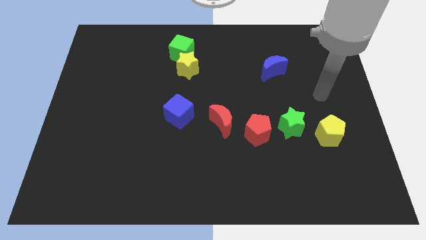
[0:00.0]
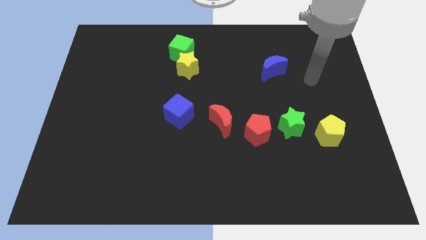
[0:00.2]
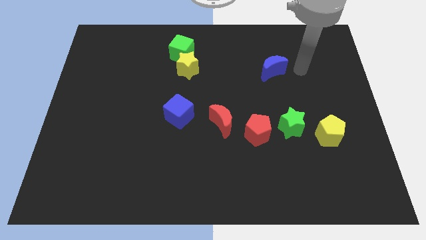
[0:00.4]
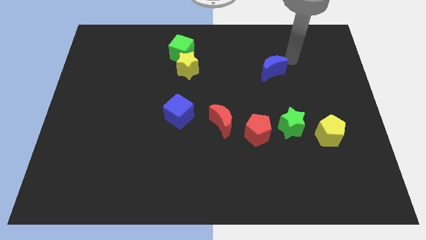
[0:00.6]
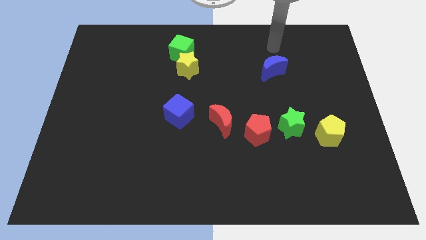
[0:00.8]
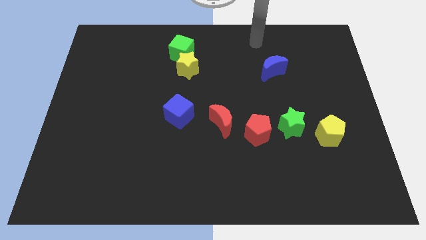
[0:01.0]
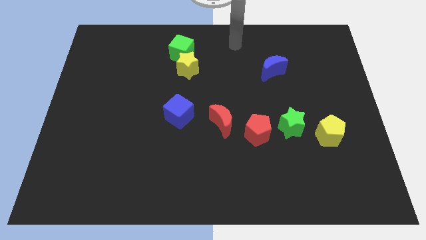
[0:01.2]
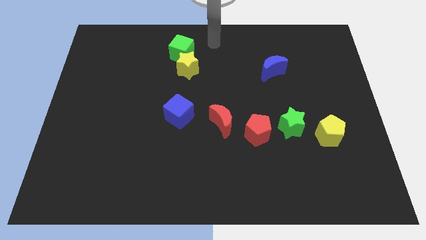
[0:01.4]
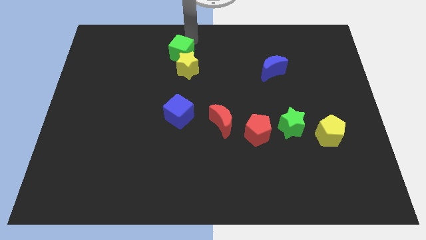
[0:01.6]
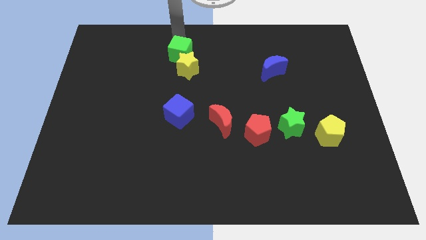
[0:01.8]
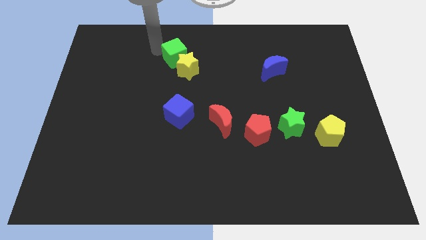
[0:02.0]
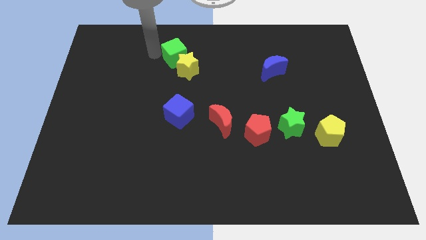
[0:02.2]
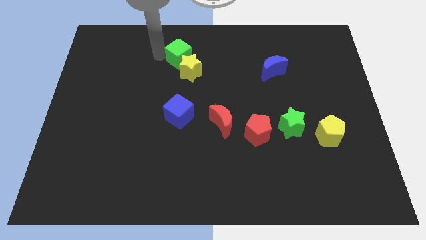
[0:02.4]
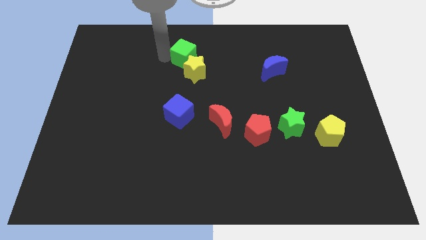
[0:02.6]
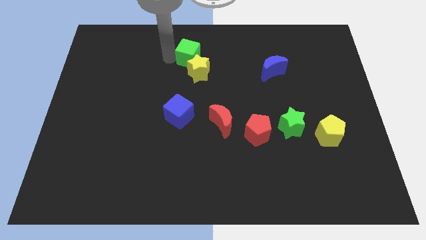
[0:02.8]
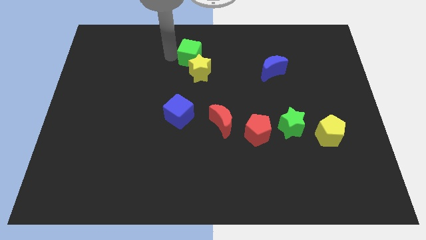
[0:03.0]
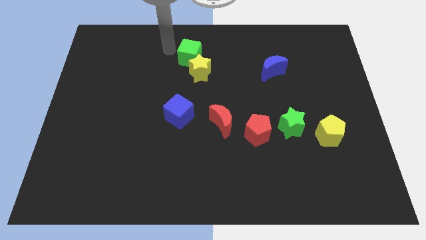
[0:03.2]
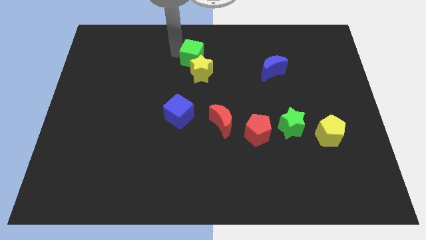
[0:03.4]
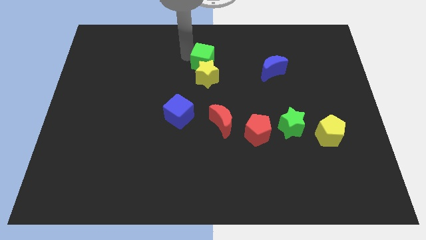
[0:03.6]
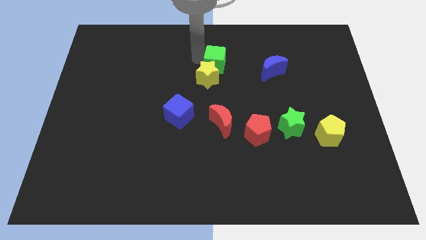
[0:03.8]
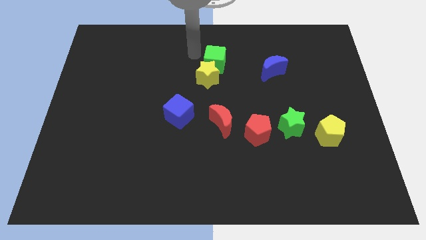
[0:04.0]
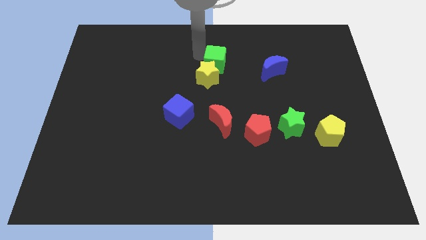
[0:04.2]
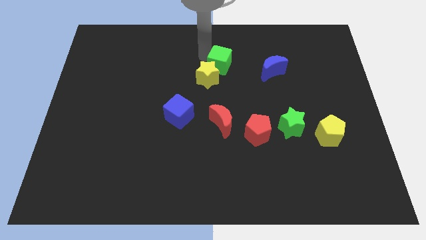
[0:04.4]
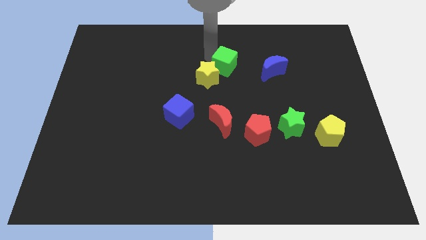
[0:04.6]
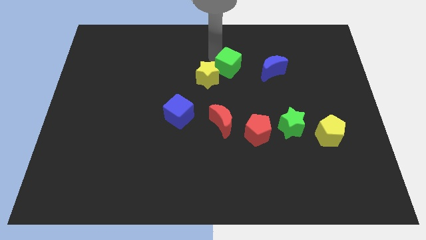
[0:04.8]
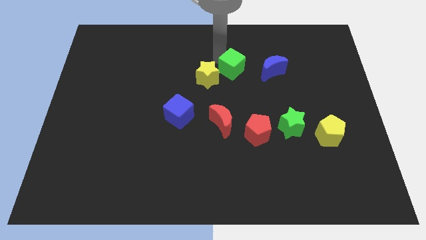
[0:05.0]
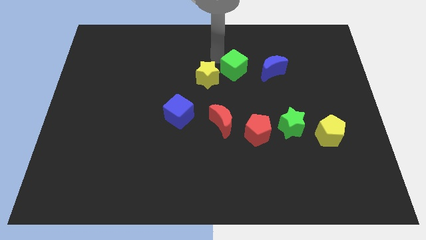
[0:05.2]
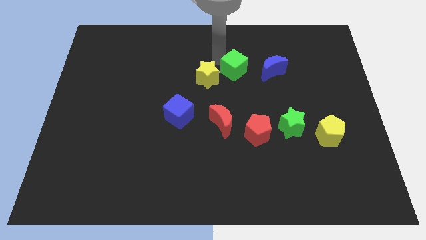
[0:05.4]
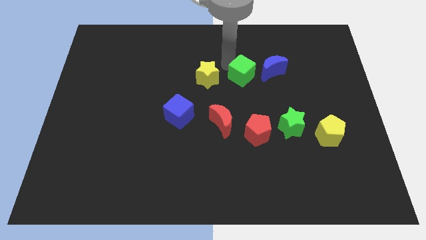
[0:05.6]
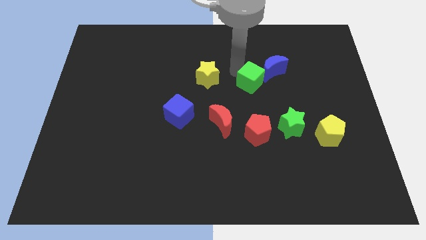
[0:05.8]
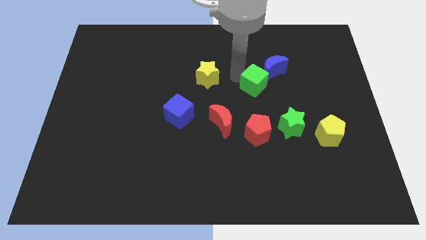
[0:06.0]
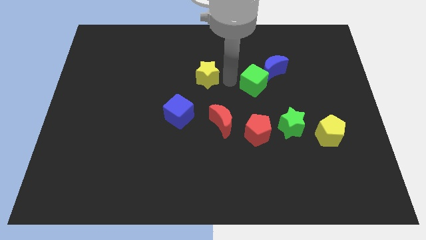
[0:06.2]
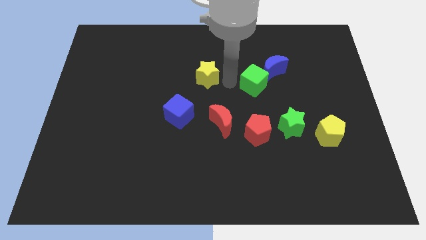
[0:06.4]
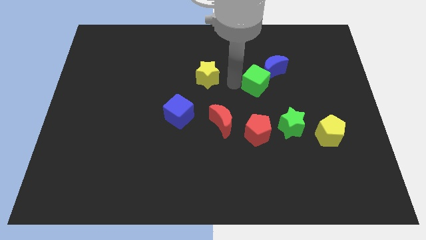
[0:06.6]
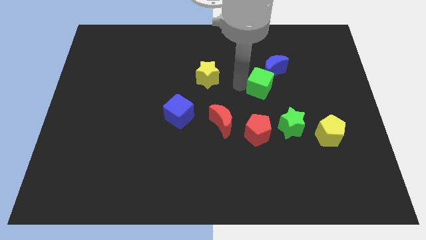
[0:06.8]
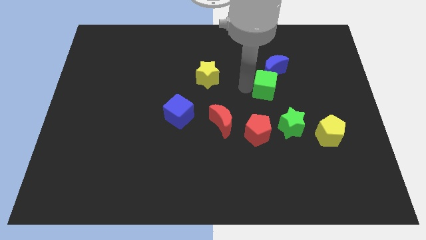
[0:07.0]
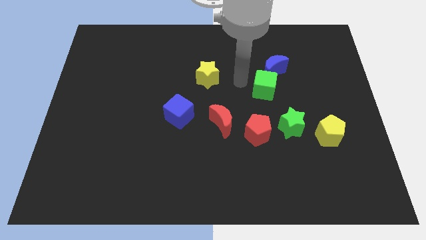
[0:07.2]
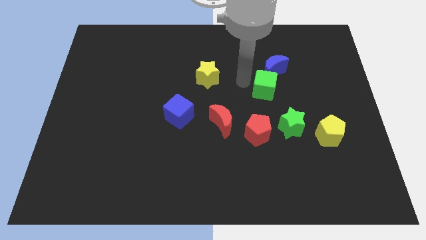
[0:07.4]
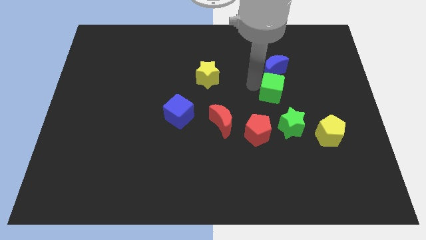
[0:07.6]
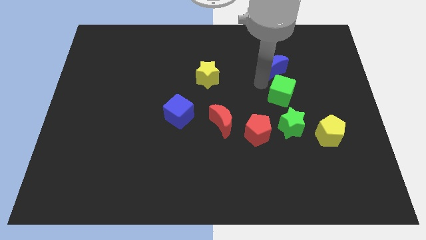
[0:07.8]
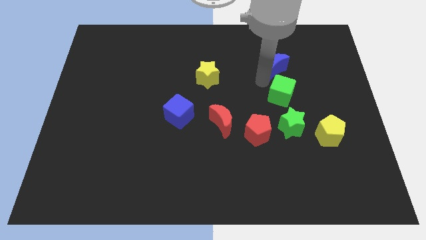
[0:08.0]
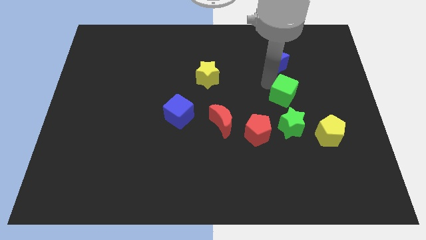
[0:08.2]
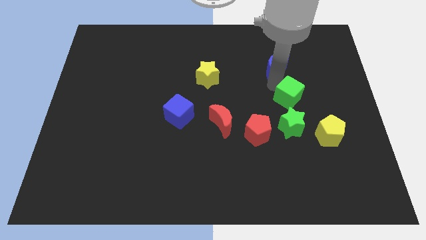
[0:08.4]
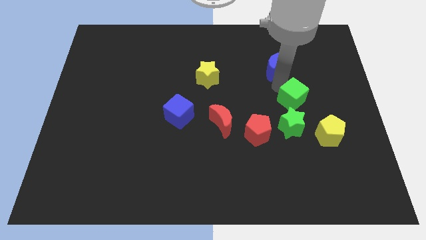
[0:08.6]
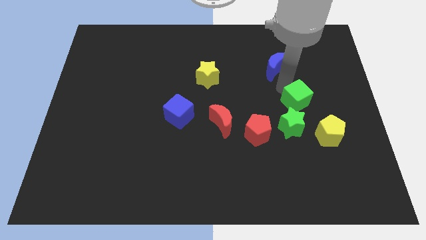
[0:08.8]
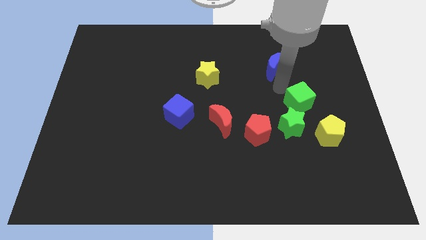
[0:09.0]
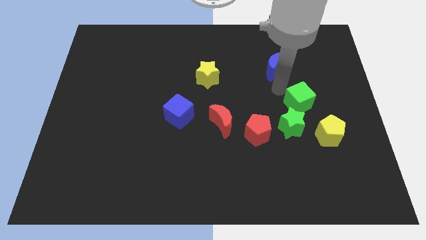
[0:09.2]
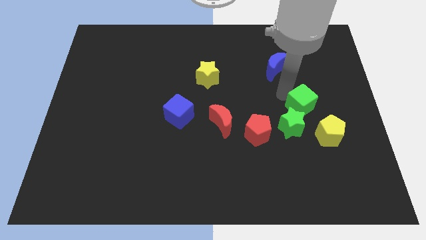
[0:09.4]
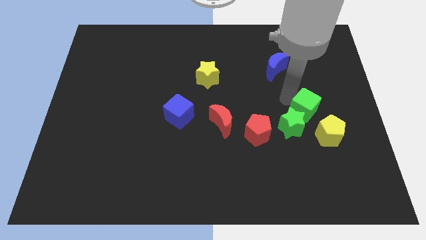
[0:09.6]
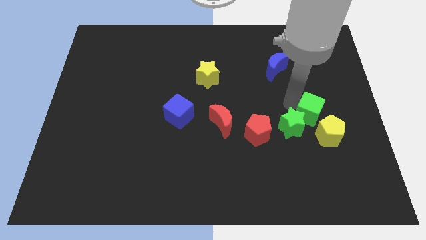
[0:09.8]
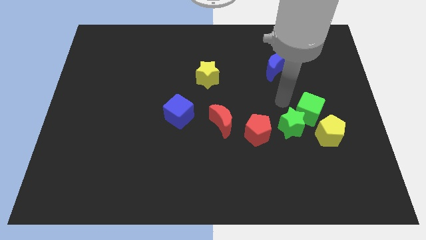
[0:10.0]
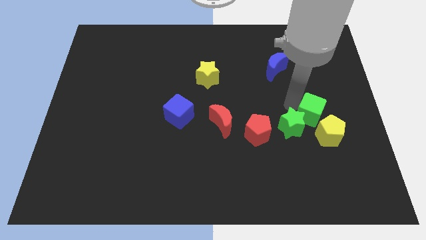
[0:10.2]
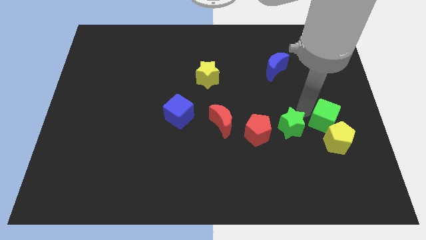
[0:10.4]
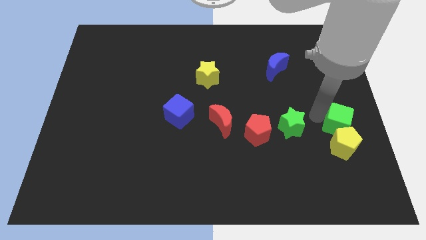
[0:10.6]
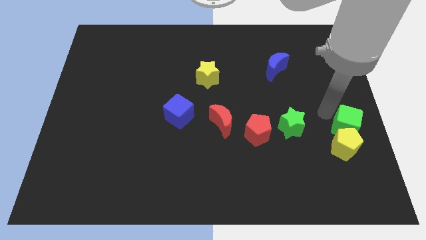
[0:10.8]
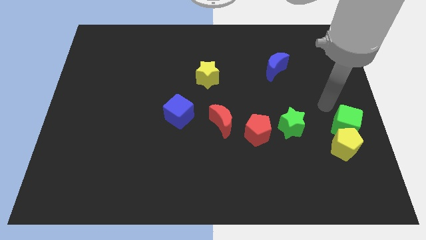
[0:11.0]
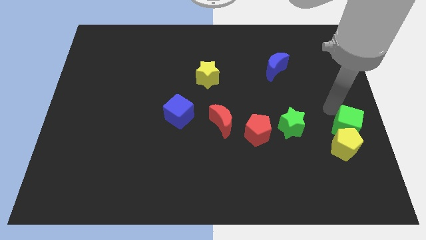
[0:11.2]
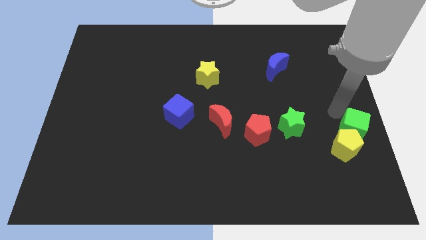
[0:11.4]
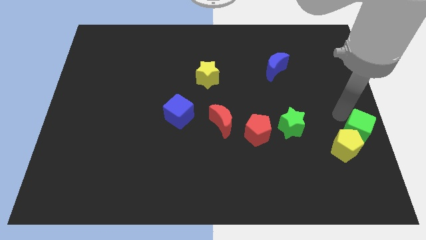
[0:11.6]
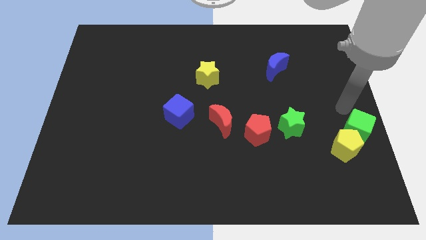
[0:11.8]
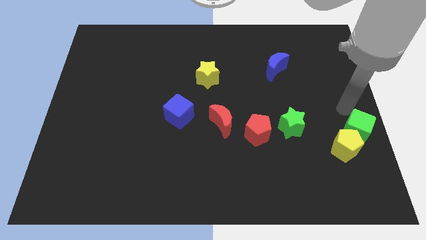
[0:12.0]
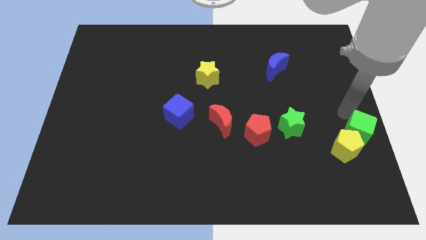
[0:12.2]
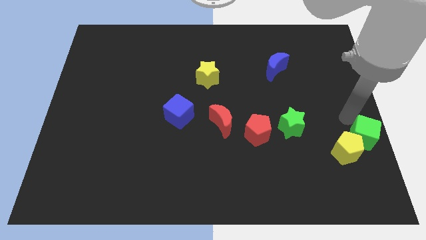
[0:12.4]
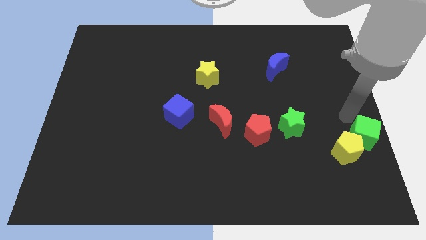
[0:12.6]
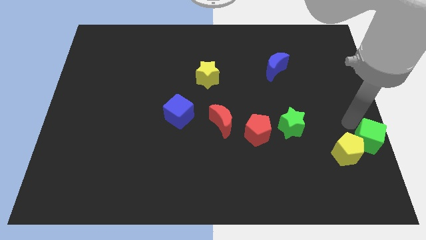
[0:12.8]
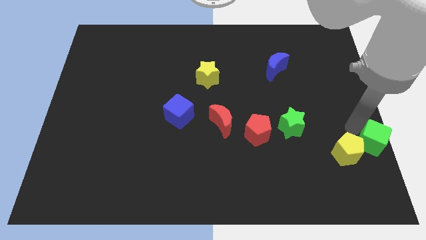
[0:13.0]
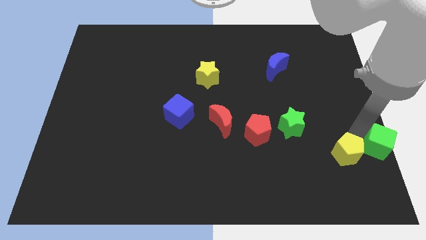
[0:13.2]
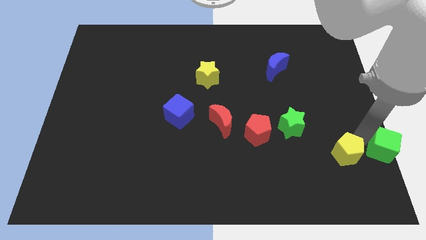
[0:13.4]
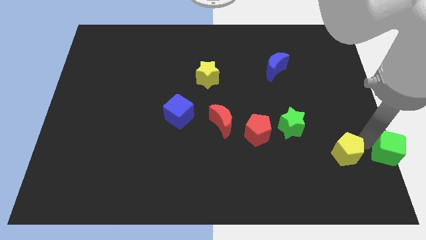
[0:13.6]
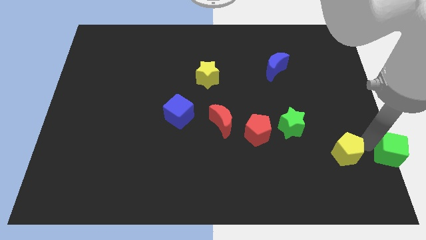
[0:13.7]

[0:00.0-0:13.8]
slide the green cube to the bottom right
